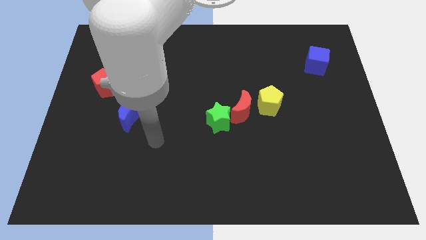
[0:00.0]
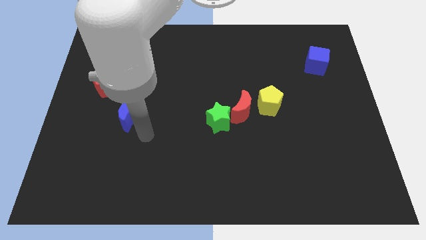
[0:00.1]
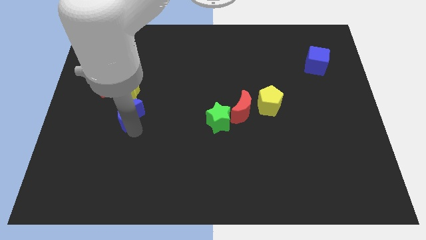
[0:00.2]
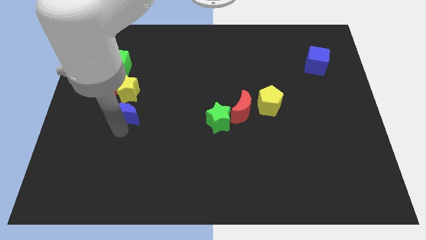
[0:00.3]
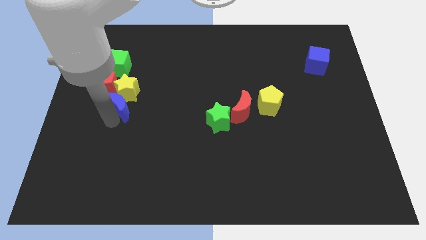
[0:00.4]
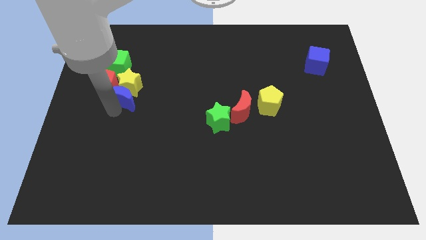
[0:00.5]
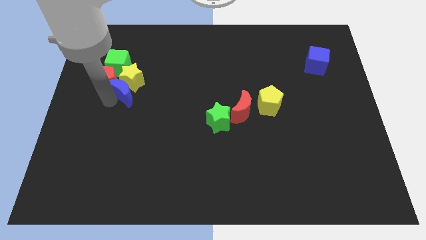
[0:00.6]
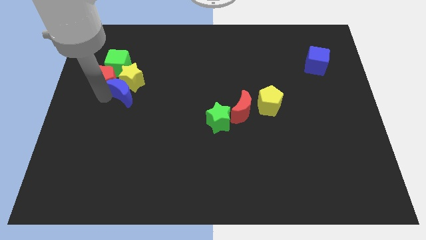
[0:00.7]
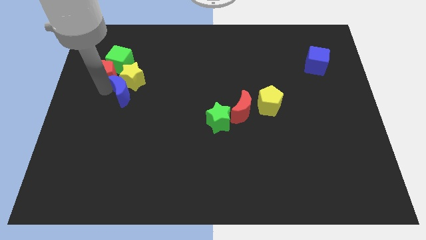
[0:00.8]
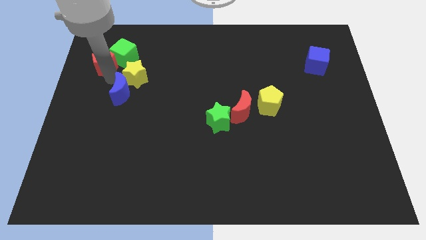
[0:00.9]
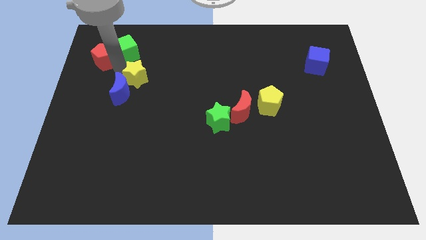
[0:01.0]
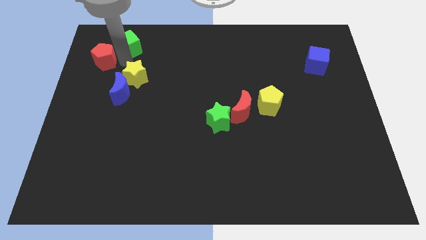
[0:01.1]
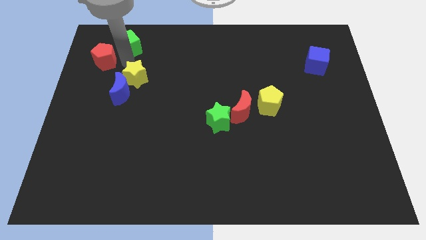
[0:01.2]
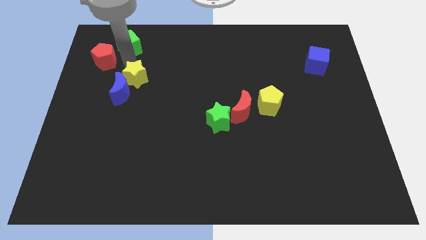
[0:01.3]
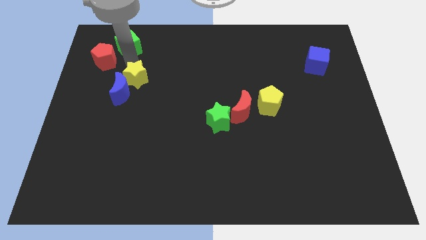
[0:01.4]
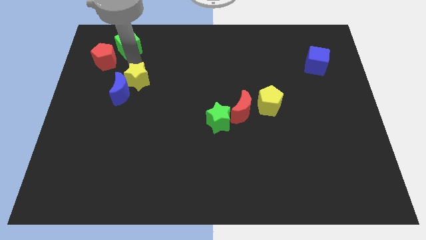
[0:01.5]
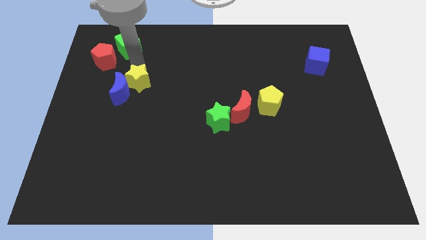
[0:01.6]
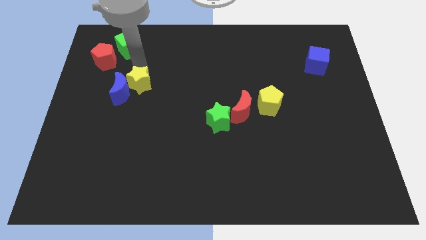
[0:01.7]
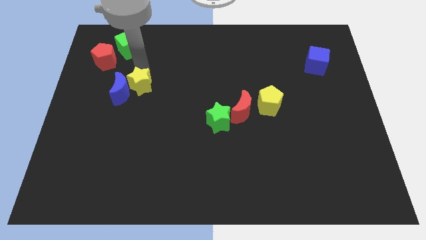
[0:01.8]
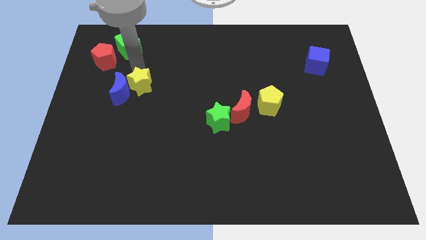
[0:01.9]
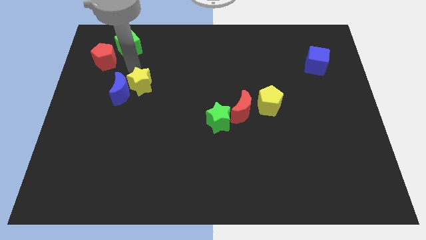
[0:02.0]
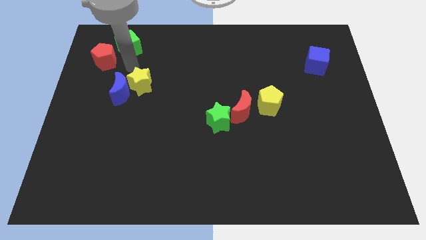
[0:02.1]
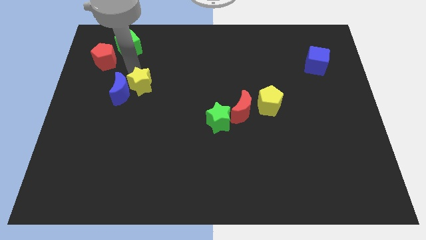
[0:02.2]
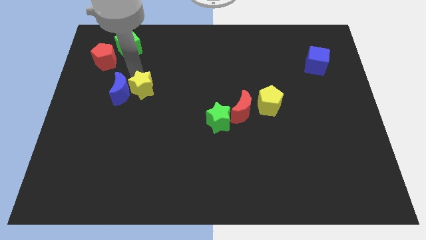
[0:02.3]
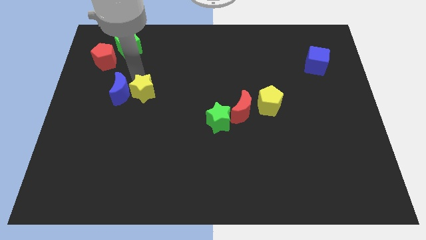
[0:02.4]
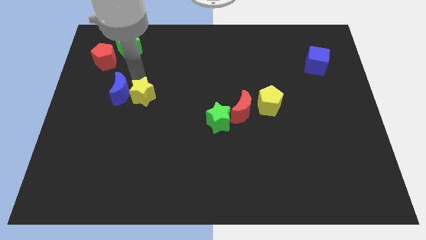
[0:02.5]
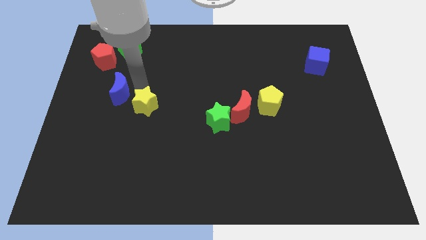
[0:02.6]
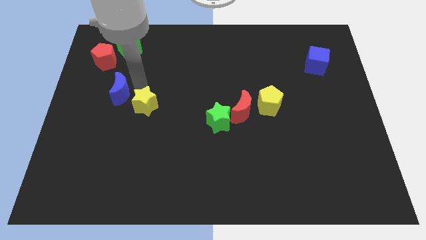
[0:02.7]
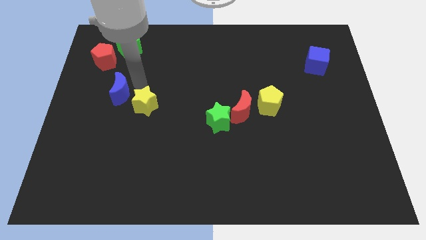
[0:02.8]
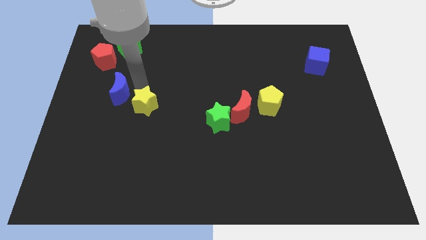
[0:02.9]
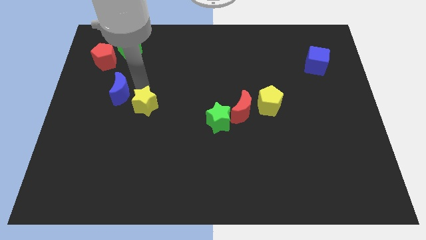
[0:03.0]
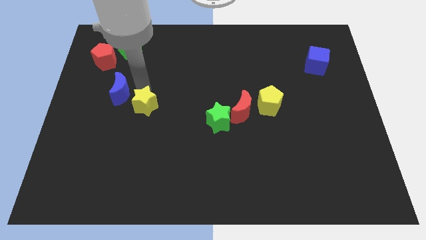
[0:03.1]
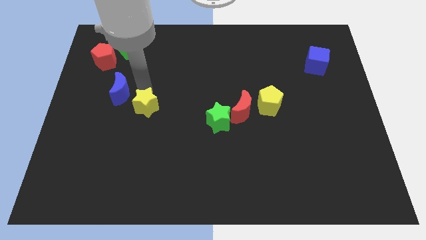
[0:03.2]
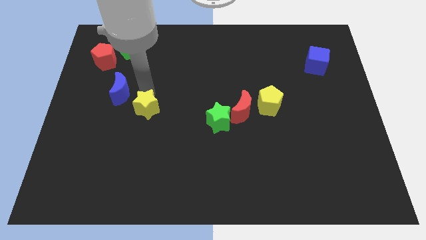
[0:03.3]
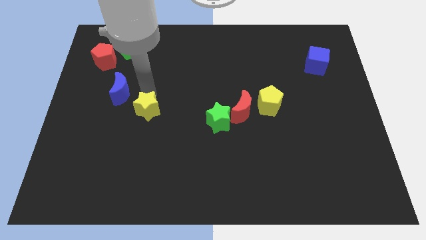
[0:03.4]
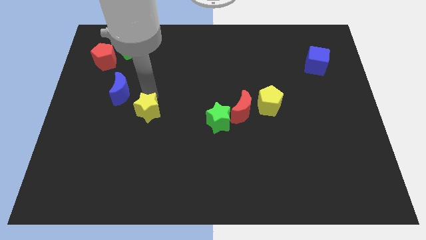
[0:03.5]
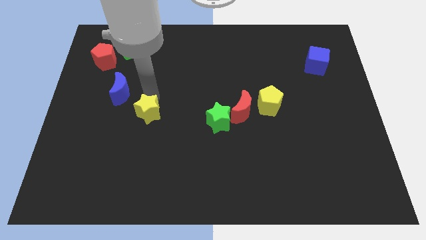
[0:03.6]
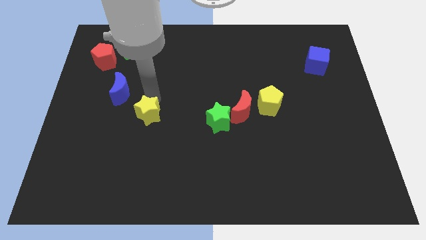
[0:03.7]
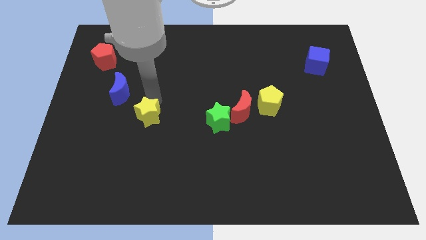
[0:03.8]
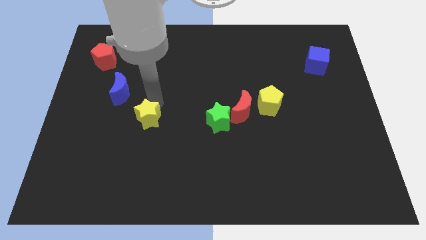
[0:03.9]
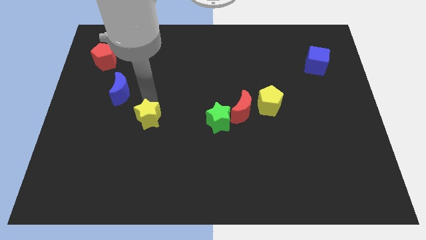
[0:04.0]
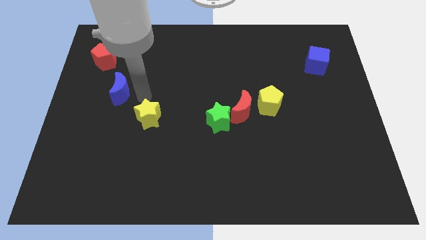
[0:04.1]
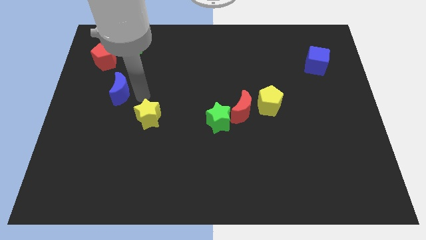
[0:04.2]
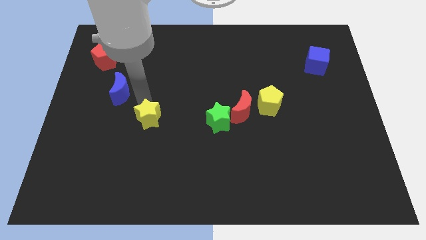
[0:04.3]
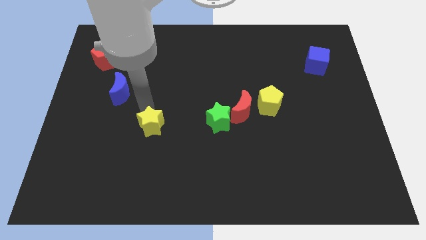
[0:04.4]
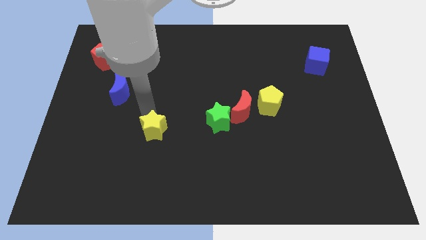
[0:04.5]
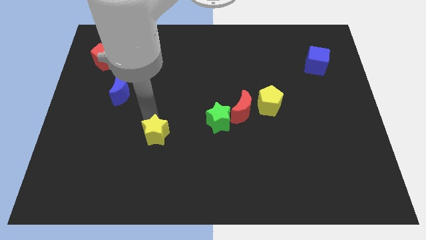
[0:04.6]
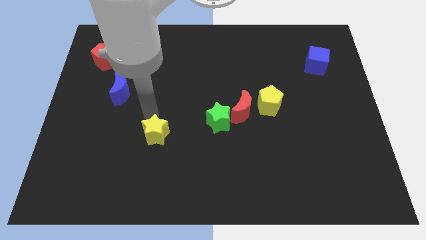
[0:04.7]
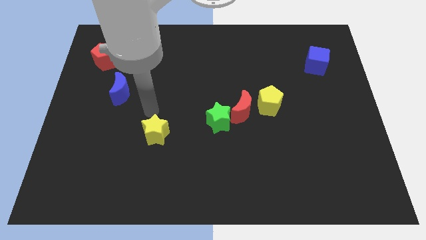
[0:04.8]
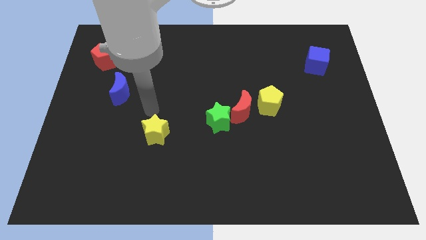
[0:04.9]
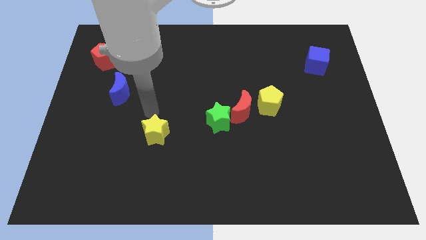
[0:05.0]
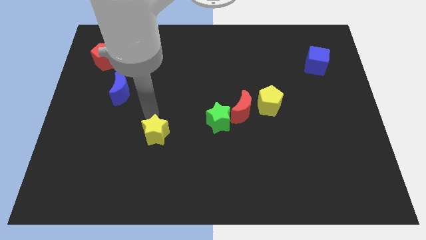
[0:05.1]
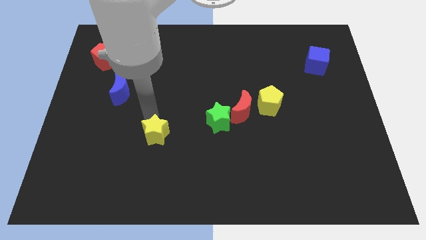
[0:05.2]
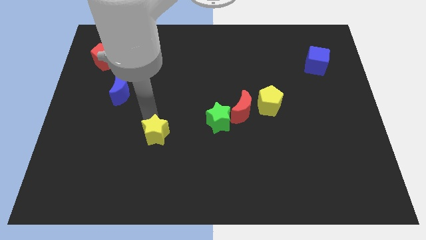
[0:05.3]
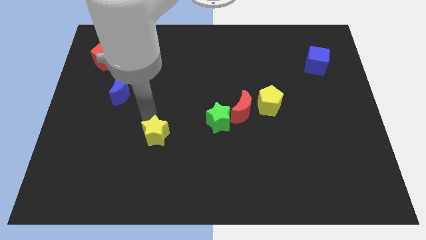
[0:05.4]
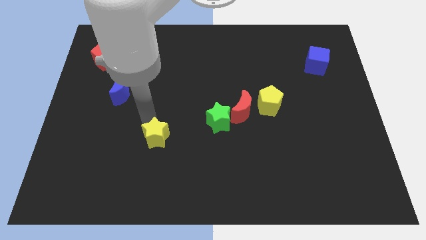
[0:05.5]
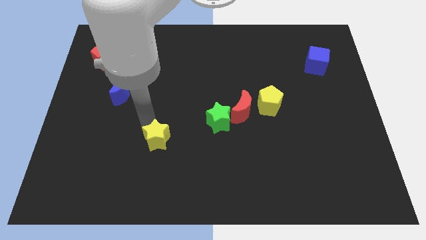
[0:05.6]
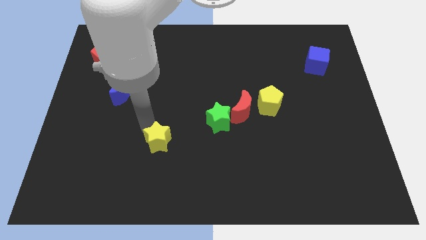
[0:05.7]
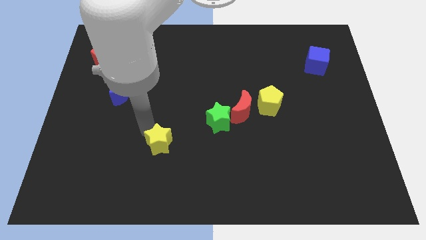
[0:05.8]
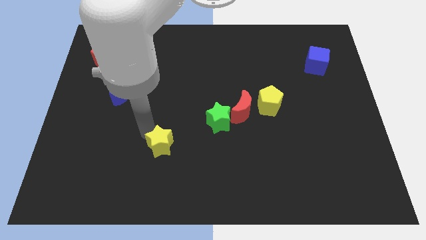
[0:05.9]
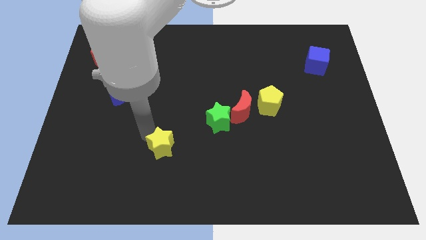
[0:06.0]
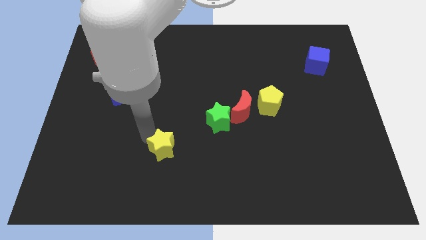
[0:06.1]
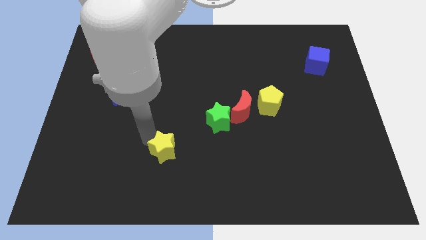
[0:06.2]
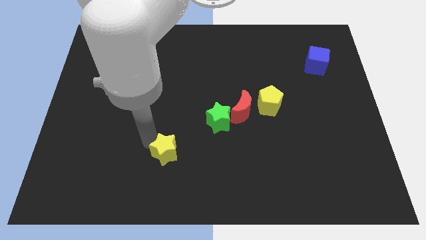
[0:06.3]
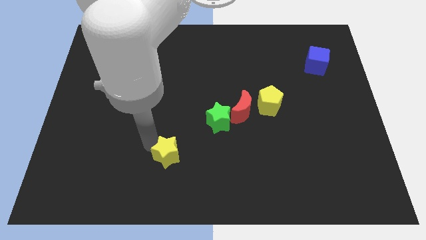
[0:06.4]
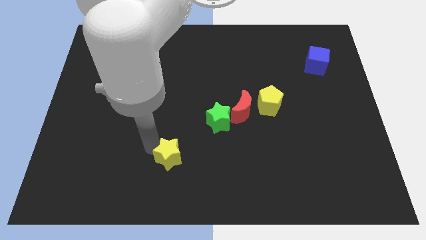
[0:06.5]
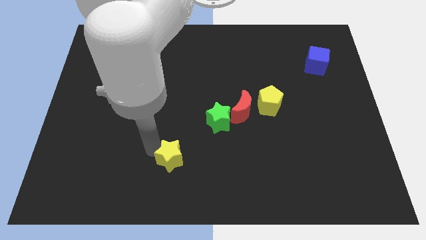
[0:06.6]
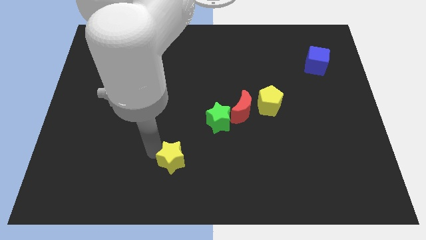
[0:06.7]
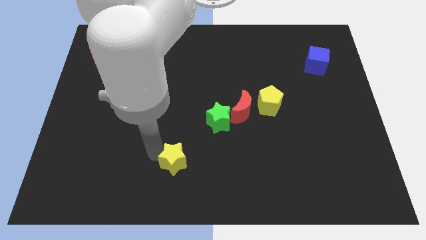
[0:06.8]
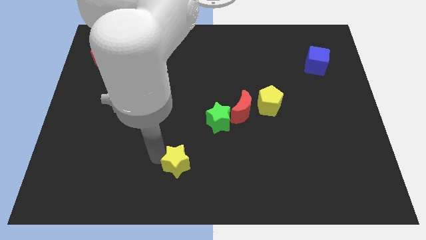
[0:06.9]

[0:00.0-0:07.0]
slide the yellow star to the bottom
